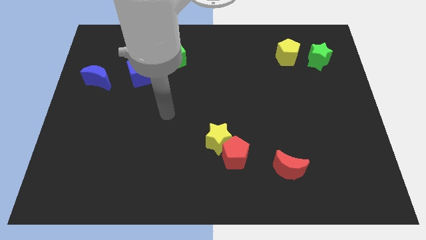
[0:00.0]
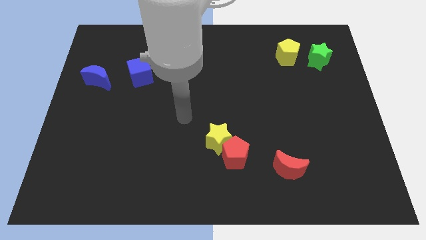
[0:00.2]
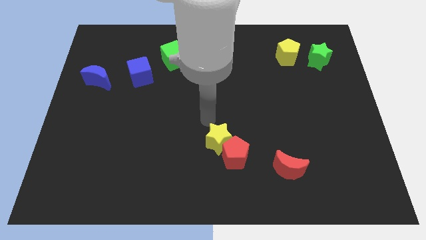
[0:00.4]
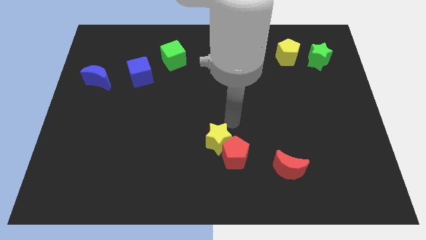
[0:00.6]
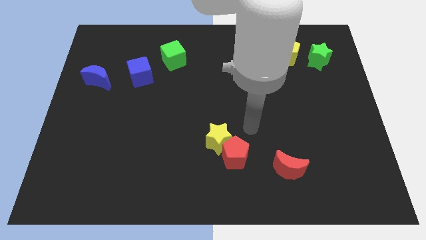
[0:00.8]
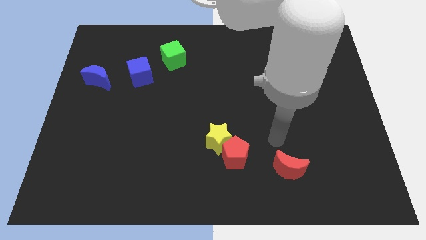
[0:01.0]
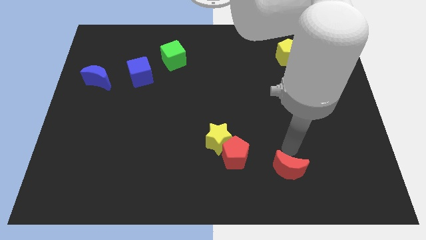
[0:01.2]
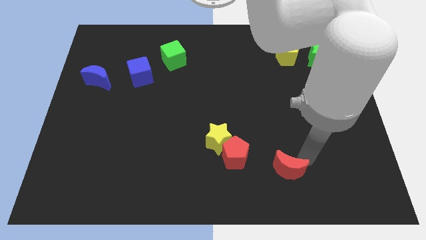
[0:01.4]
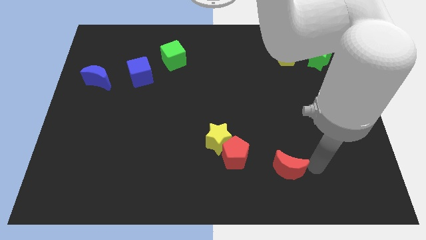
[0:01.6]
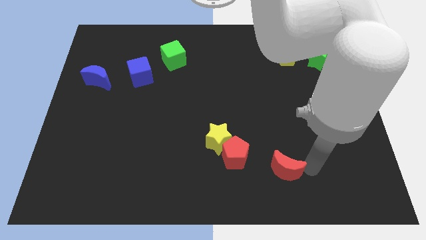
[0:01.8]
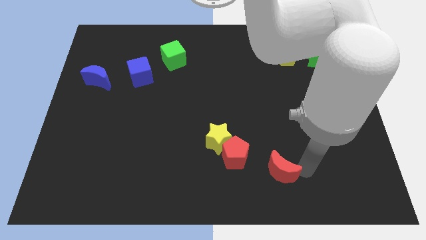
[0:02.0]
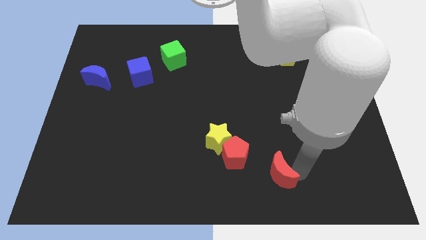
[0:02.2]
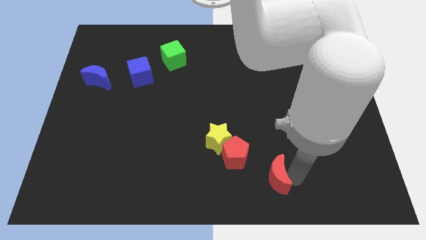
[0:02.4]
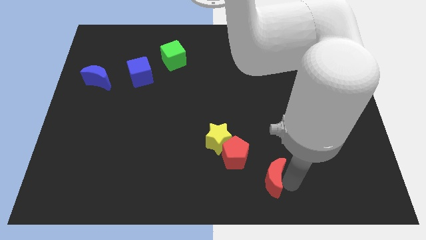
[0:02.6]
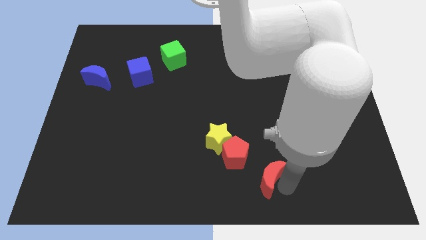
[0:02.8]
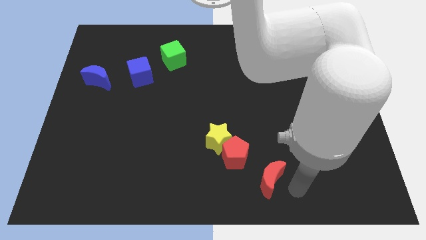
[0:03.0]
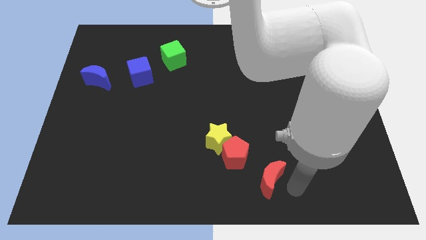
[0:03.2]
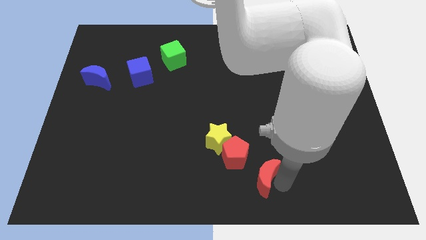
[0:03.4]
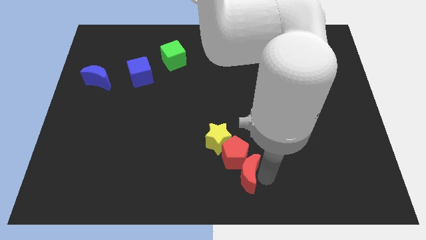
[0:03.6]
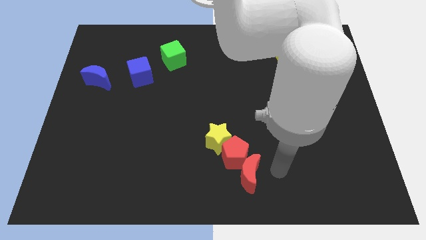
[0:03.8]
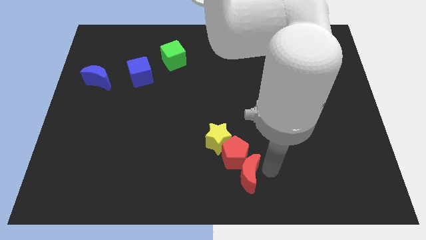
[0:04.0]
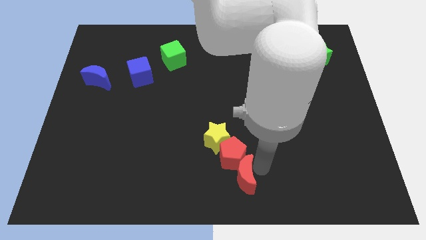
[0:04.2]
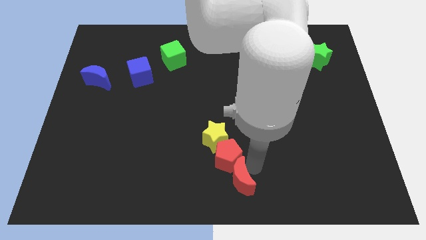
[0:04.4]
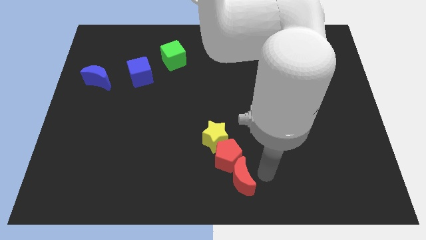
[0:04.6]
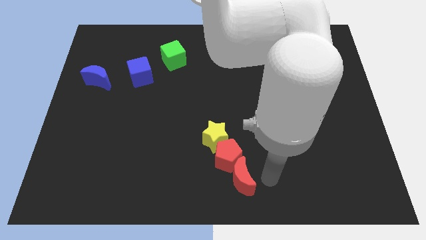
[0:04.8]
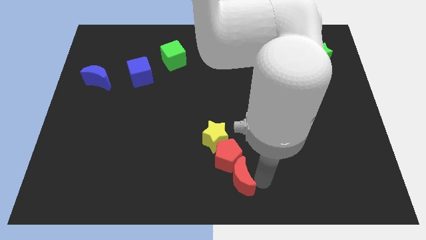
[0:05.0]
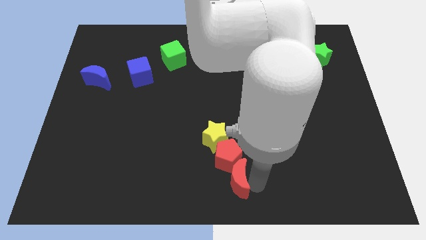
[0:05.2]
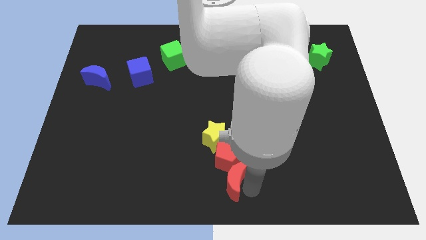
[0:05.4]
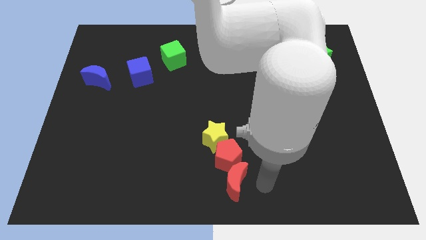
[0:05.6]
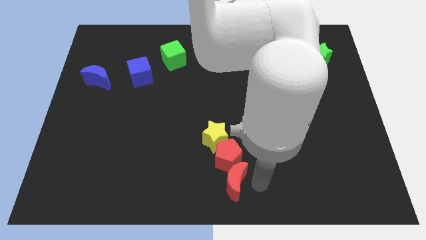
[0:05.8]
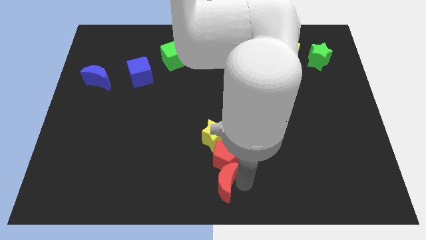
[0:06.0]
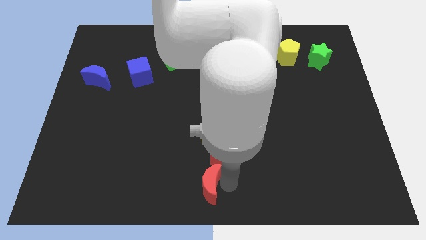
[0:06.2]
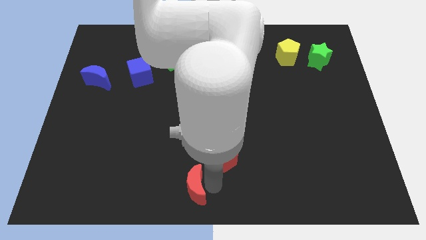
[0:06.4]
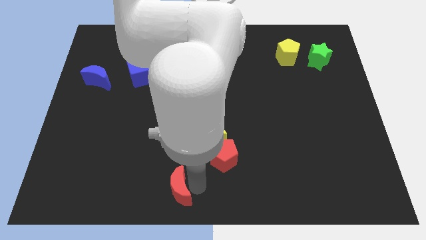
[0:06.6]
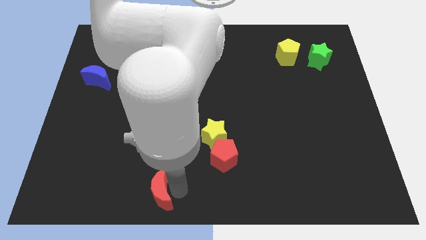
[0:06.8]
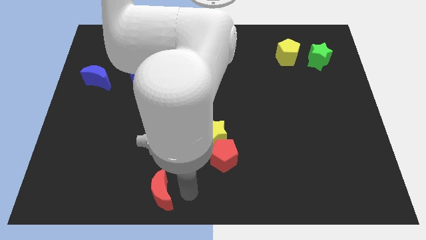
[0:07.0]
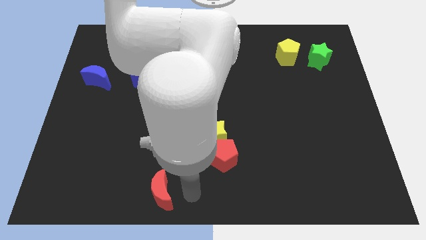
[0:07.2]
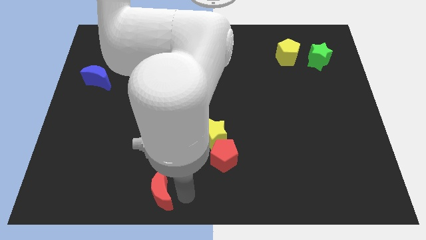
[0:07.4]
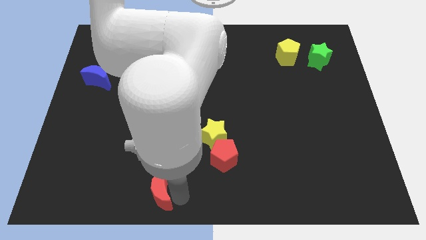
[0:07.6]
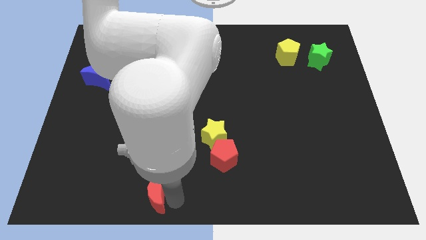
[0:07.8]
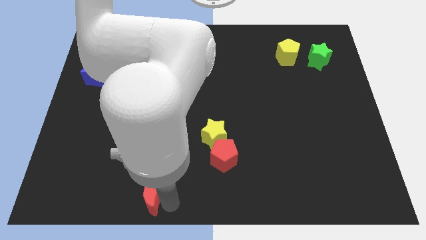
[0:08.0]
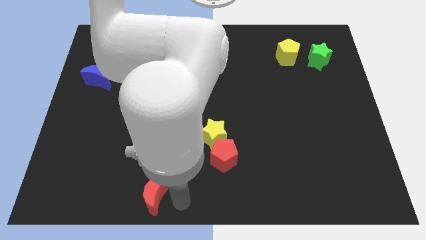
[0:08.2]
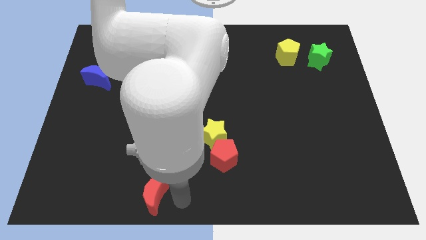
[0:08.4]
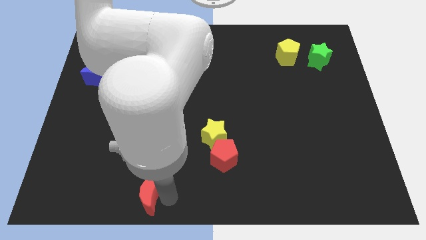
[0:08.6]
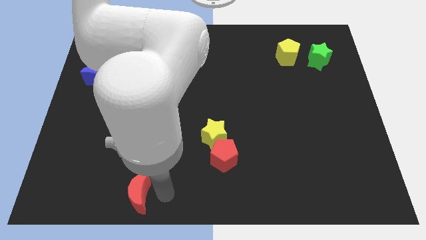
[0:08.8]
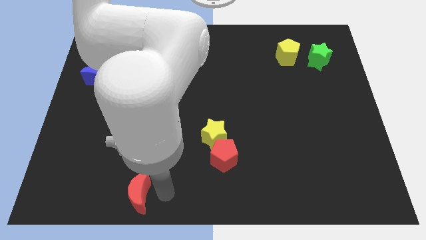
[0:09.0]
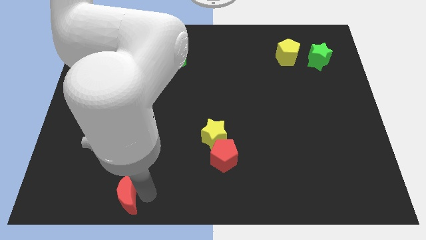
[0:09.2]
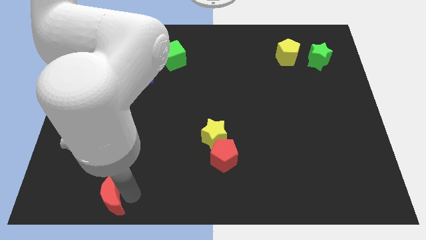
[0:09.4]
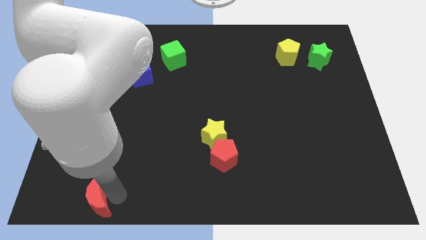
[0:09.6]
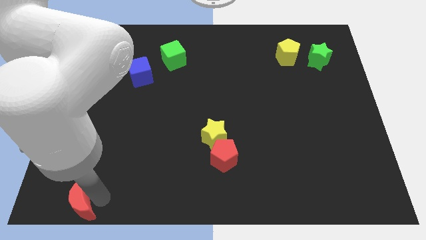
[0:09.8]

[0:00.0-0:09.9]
move the red moon to the bottom left

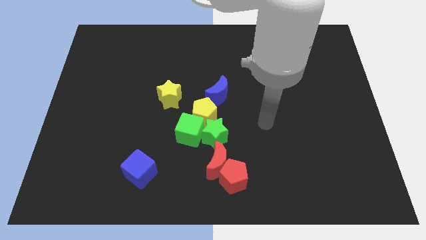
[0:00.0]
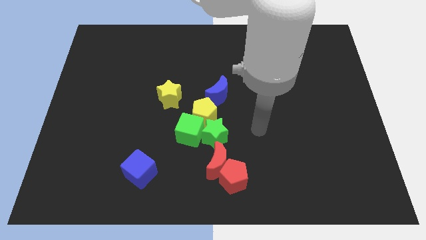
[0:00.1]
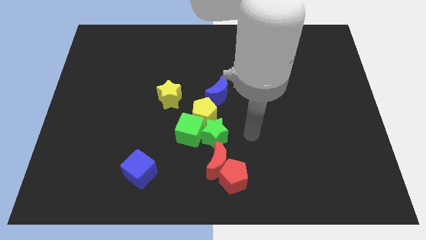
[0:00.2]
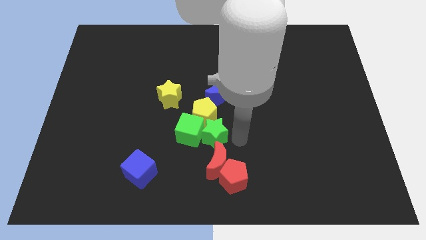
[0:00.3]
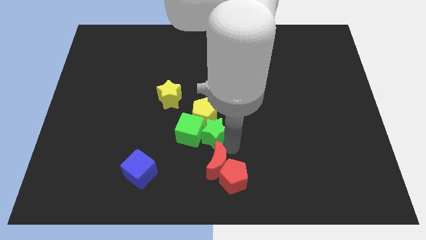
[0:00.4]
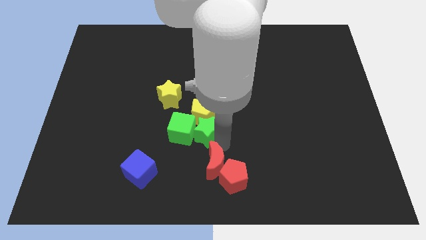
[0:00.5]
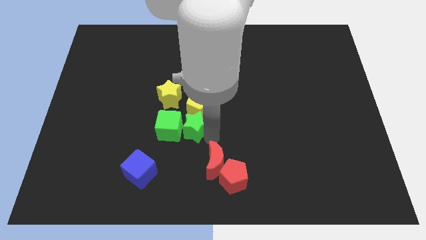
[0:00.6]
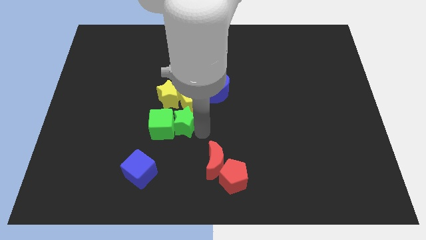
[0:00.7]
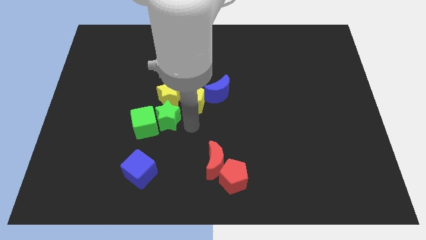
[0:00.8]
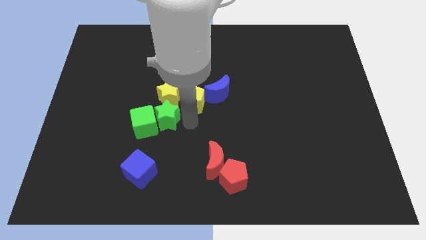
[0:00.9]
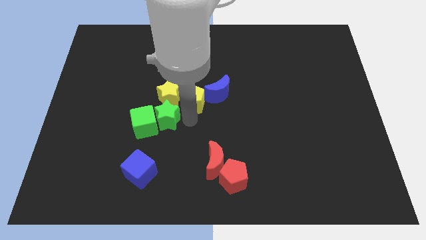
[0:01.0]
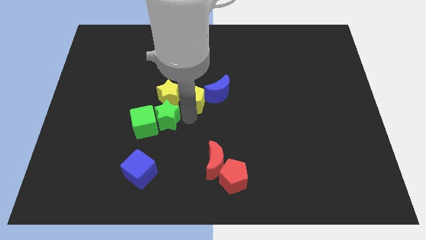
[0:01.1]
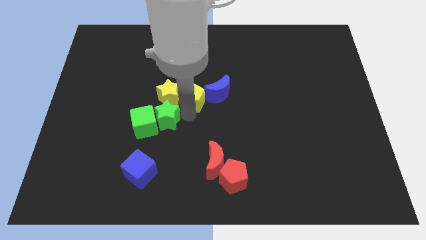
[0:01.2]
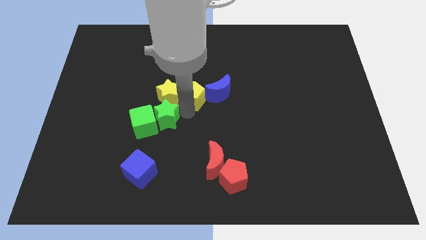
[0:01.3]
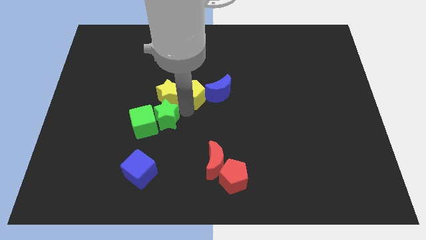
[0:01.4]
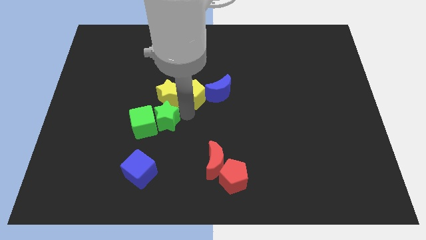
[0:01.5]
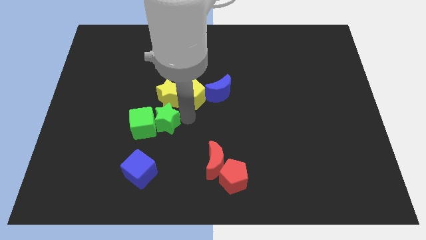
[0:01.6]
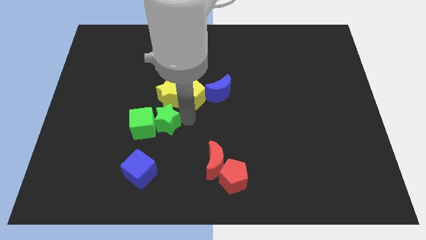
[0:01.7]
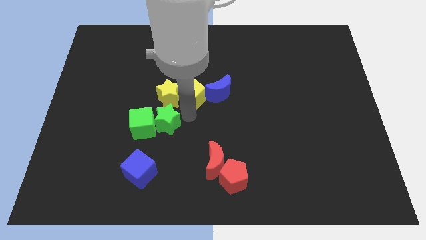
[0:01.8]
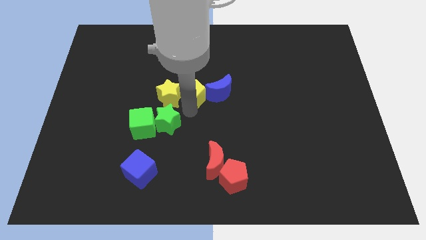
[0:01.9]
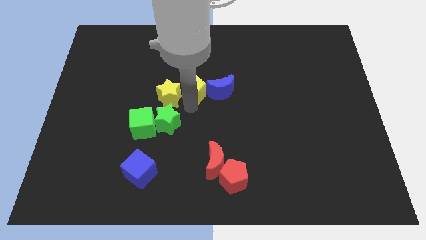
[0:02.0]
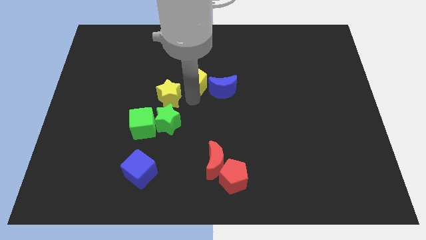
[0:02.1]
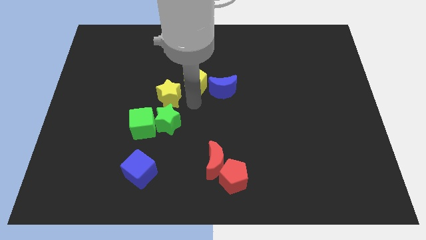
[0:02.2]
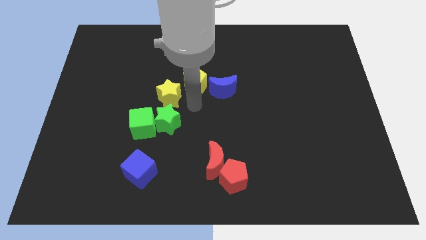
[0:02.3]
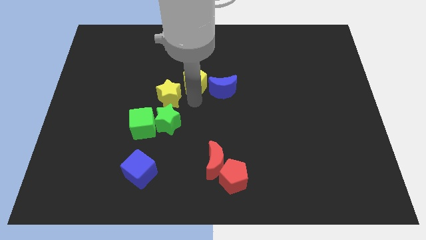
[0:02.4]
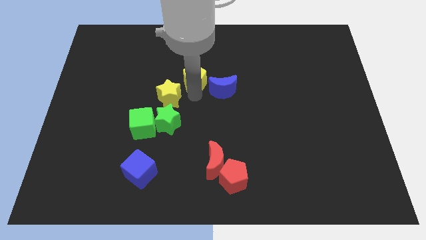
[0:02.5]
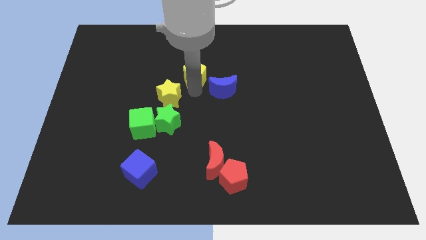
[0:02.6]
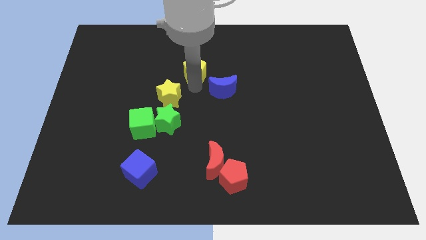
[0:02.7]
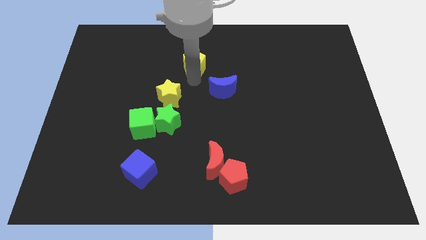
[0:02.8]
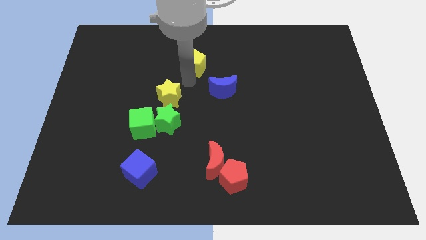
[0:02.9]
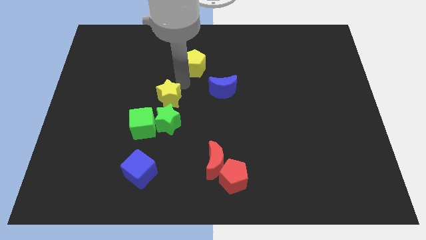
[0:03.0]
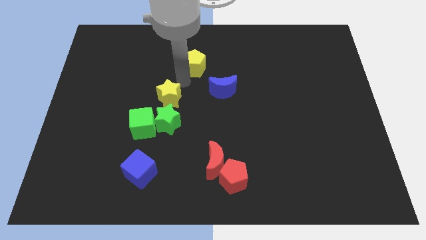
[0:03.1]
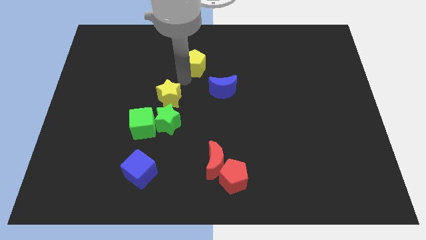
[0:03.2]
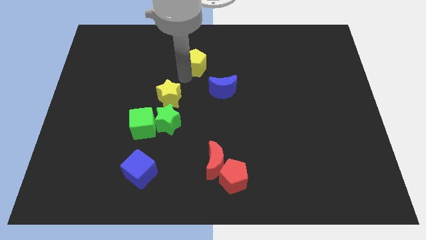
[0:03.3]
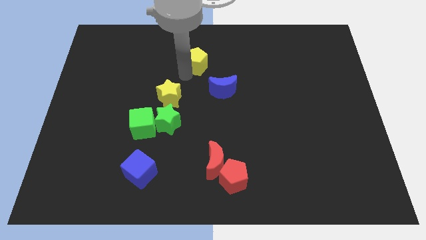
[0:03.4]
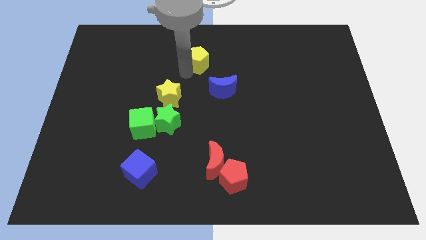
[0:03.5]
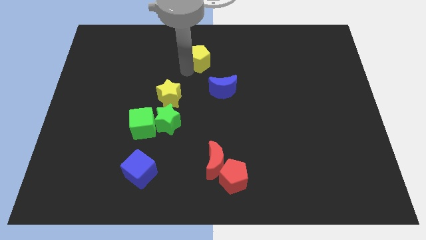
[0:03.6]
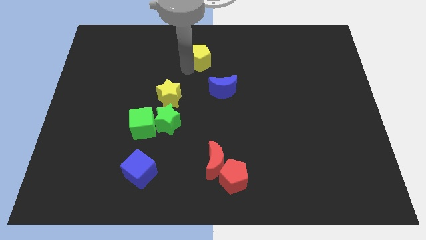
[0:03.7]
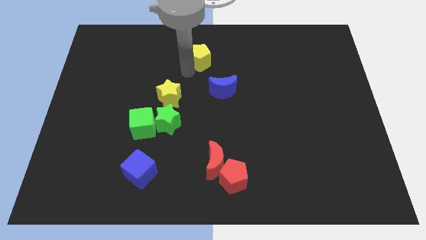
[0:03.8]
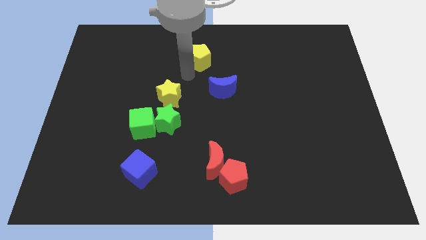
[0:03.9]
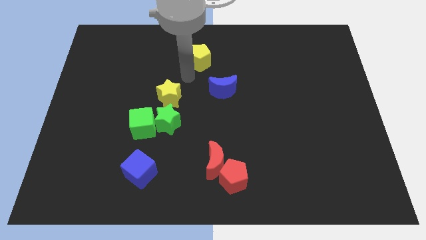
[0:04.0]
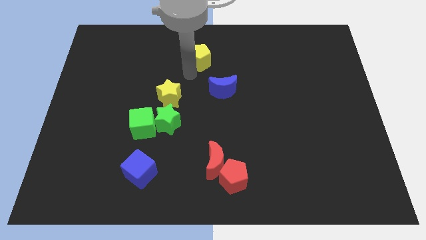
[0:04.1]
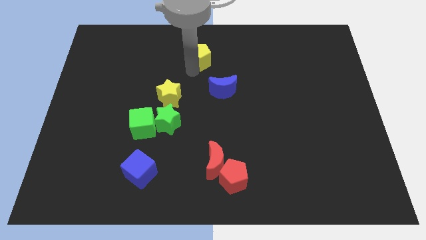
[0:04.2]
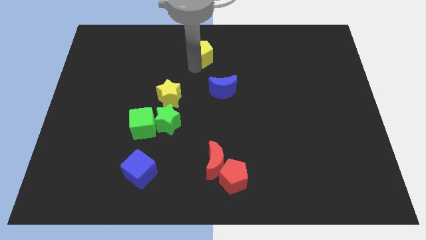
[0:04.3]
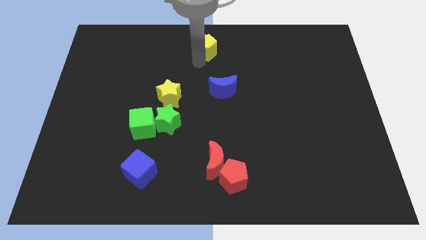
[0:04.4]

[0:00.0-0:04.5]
slide the yellow pentagon to the top side
